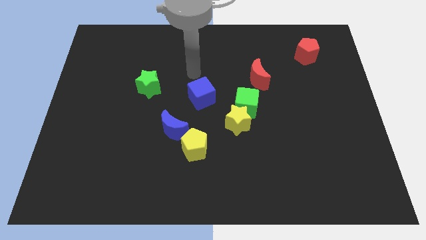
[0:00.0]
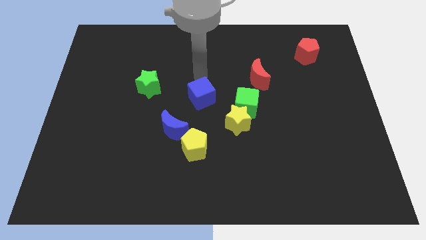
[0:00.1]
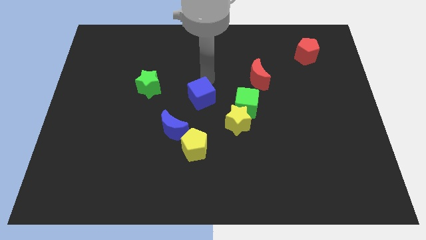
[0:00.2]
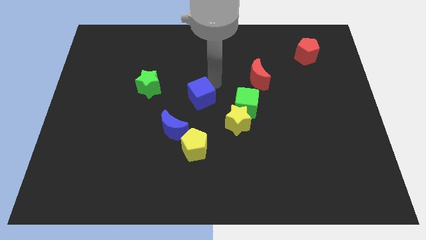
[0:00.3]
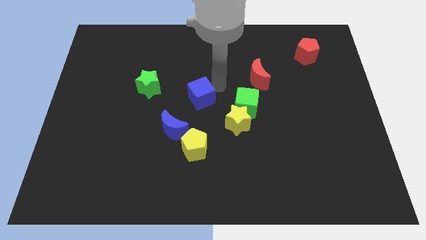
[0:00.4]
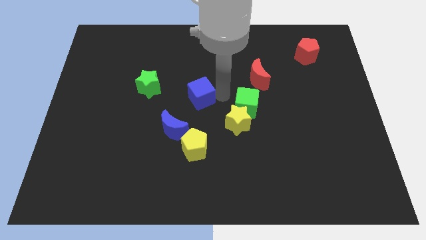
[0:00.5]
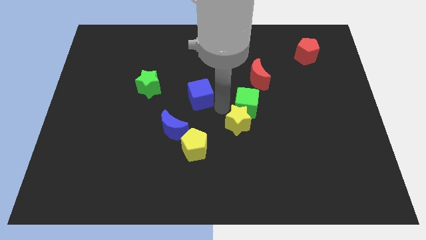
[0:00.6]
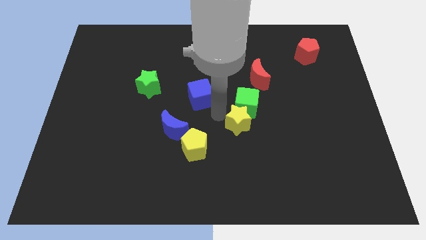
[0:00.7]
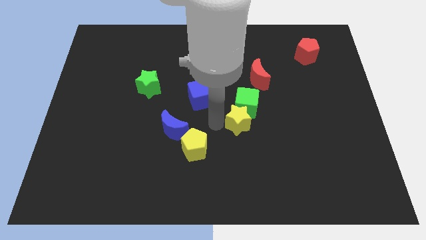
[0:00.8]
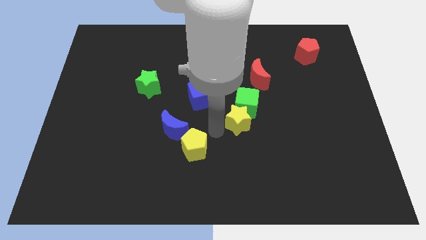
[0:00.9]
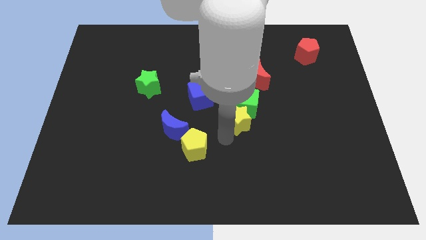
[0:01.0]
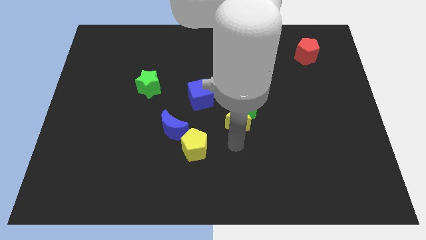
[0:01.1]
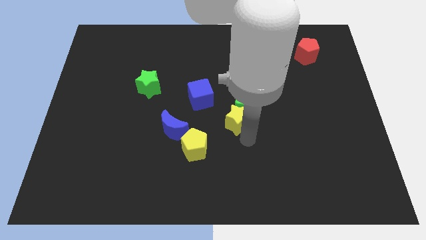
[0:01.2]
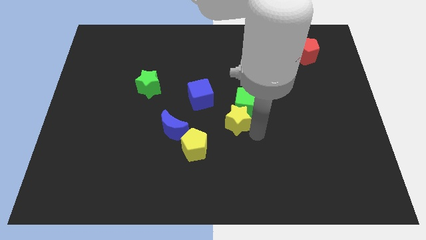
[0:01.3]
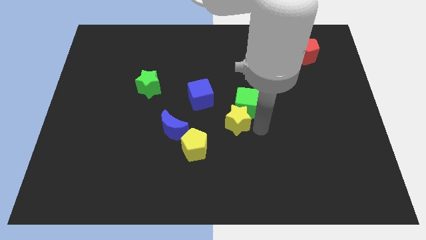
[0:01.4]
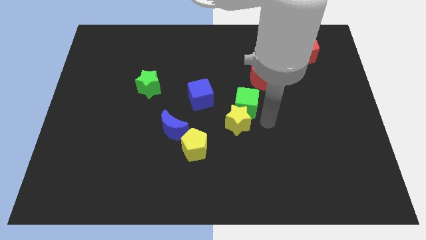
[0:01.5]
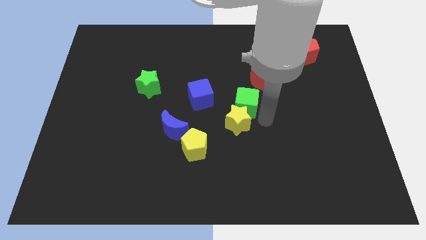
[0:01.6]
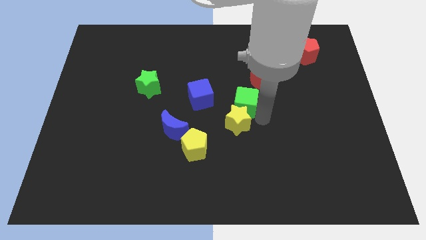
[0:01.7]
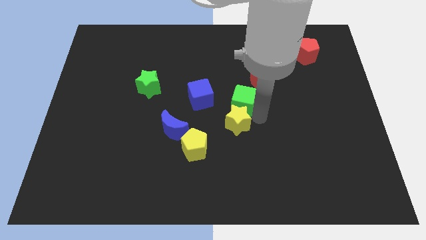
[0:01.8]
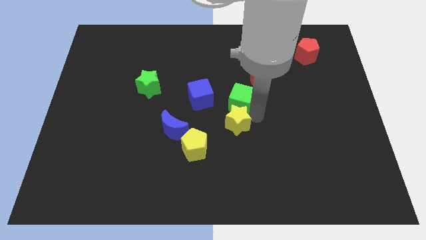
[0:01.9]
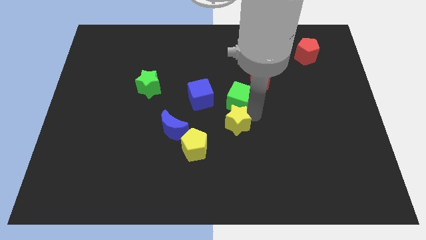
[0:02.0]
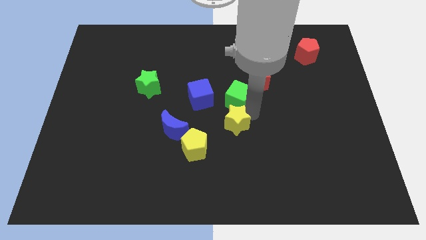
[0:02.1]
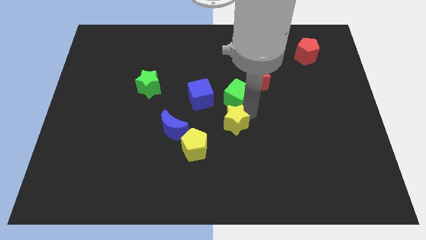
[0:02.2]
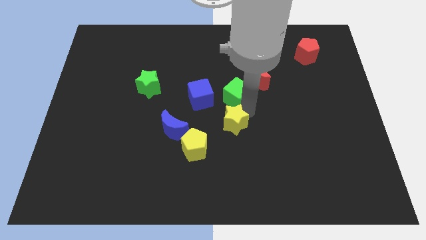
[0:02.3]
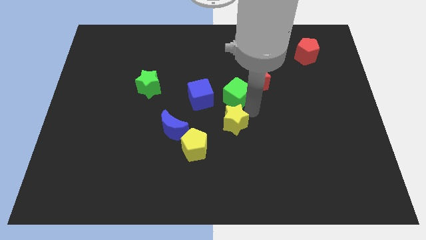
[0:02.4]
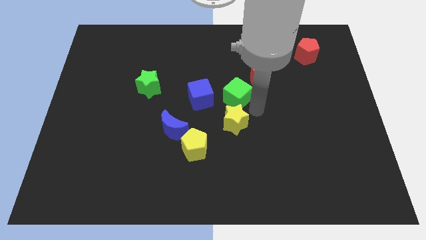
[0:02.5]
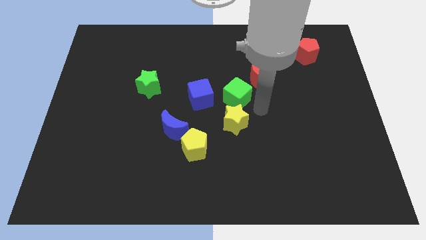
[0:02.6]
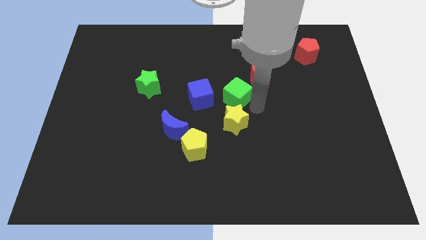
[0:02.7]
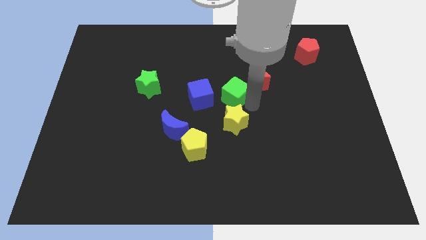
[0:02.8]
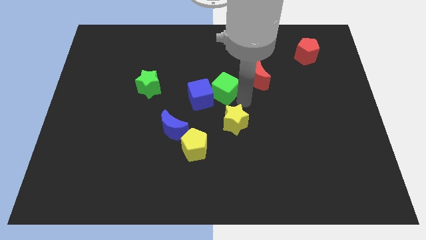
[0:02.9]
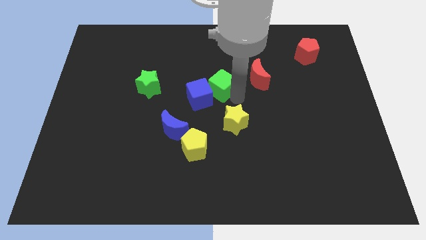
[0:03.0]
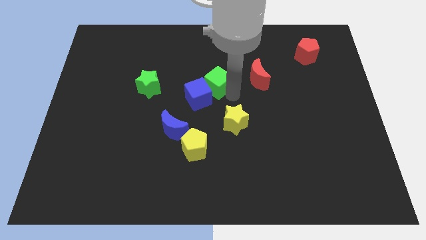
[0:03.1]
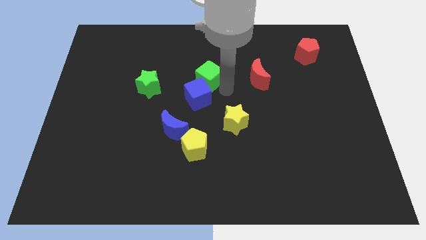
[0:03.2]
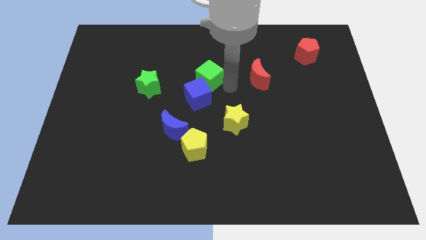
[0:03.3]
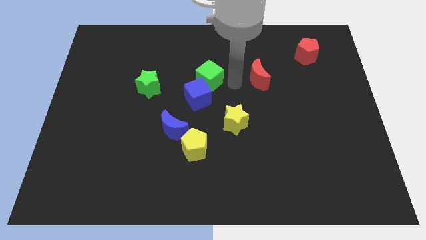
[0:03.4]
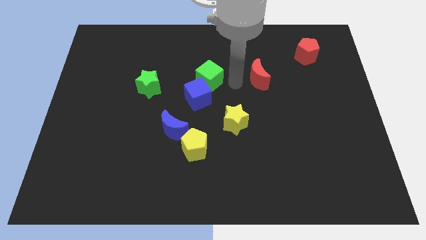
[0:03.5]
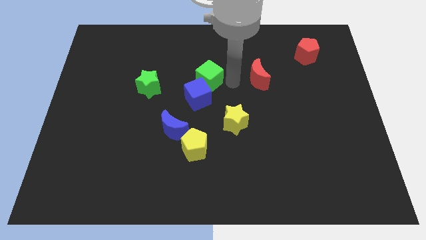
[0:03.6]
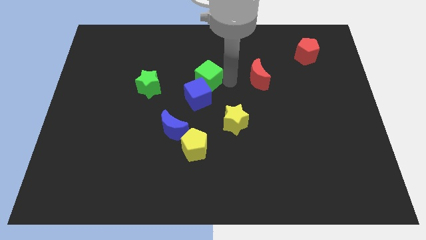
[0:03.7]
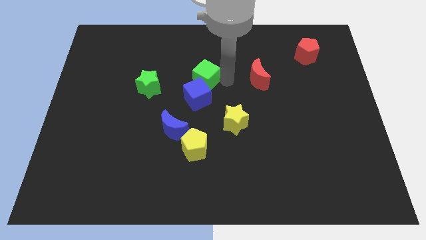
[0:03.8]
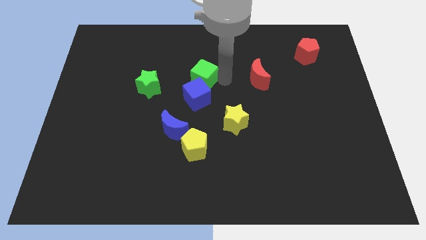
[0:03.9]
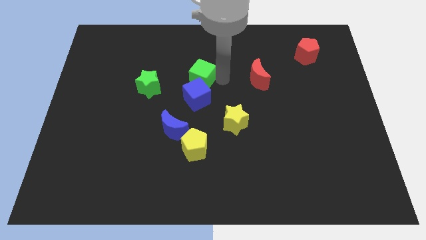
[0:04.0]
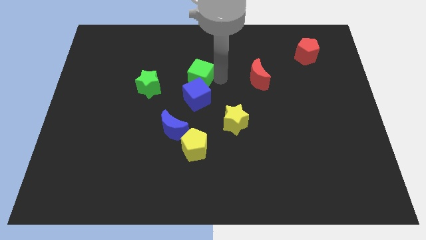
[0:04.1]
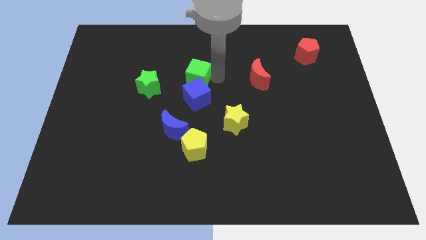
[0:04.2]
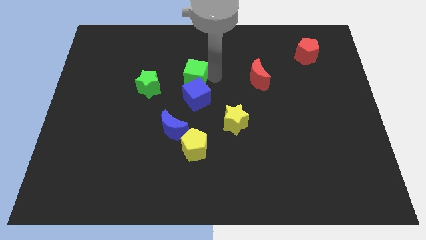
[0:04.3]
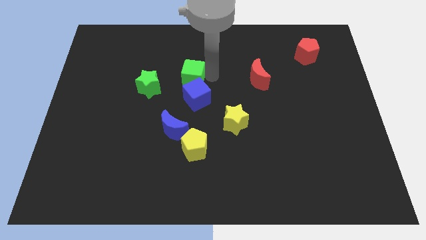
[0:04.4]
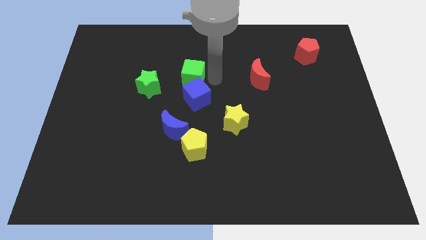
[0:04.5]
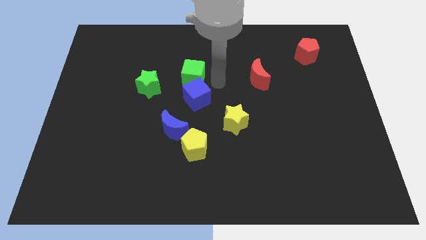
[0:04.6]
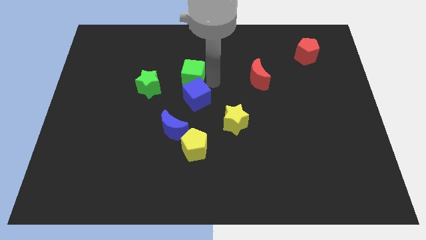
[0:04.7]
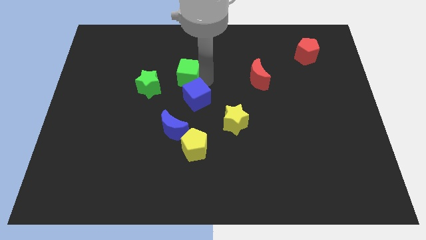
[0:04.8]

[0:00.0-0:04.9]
slide the green cube to the top right side of the green star

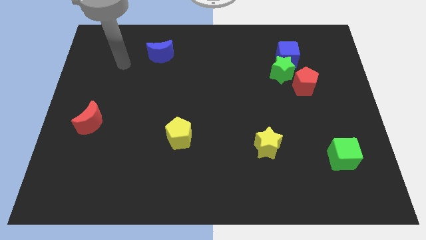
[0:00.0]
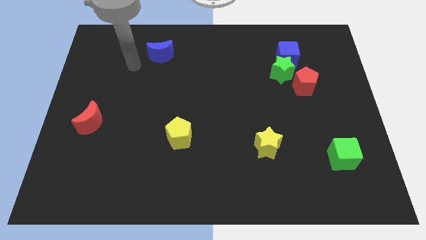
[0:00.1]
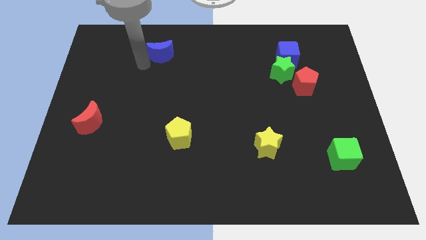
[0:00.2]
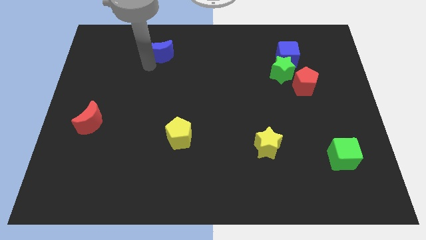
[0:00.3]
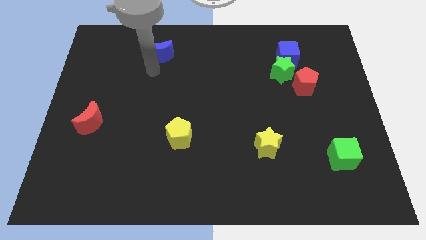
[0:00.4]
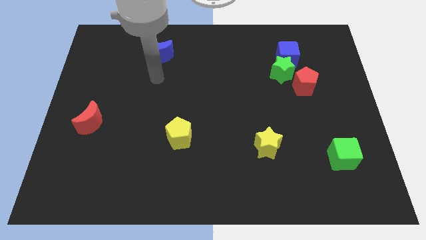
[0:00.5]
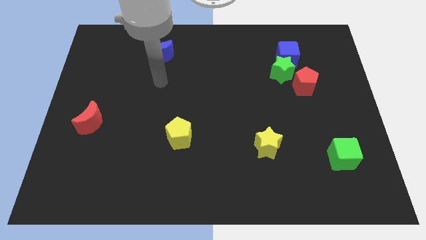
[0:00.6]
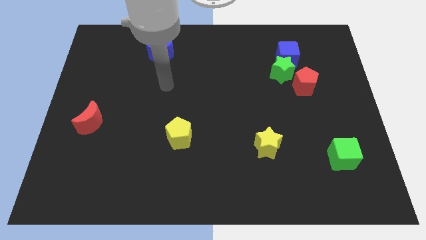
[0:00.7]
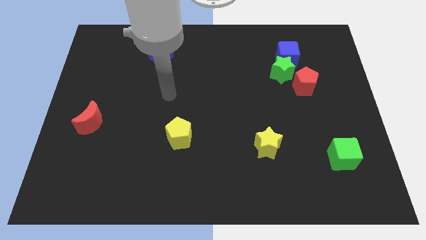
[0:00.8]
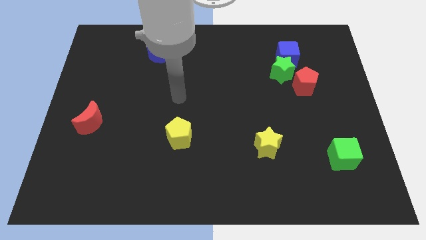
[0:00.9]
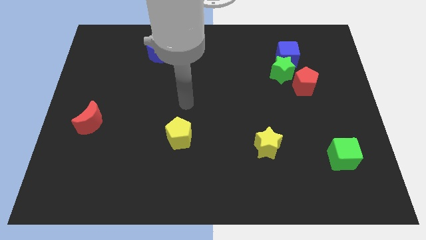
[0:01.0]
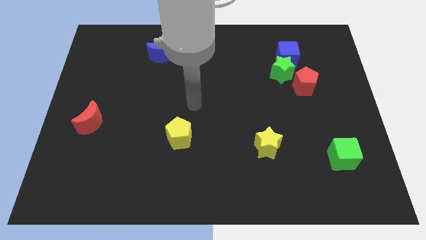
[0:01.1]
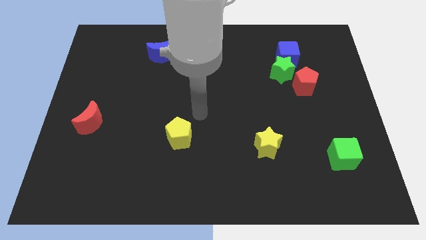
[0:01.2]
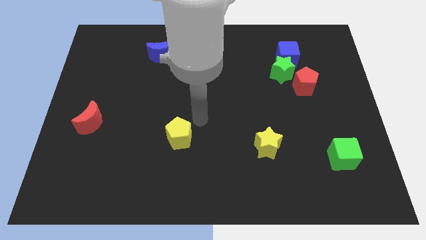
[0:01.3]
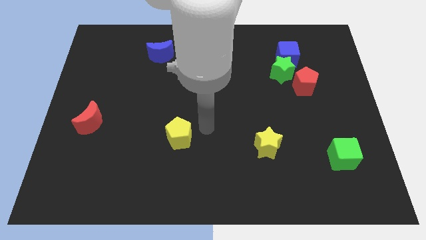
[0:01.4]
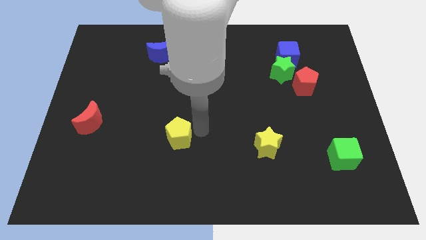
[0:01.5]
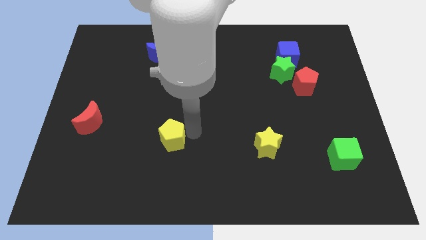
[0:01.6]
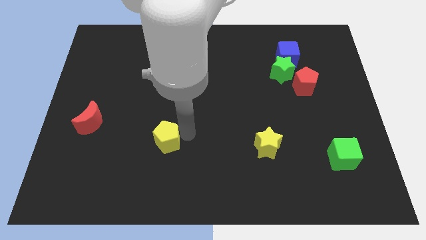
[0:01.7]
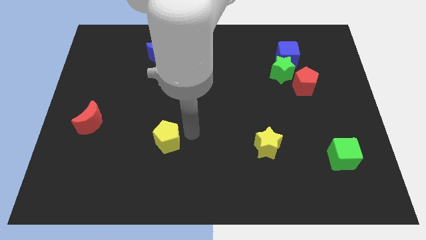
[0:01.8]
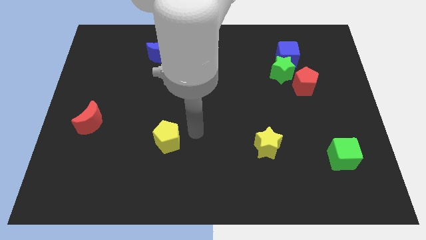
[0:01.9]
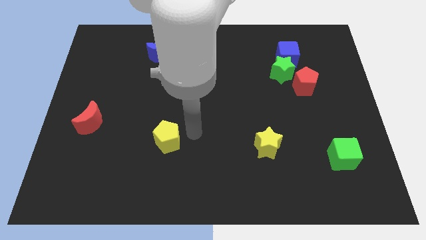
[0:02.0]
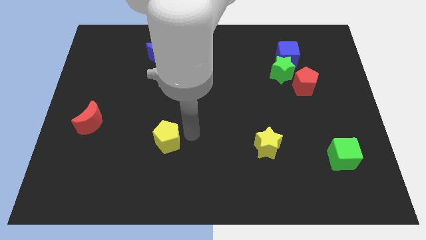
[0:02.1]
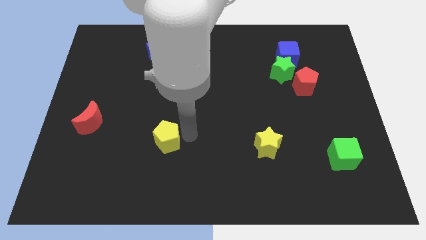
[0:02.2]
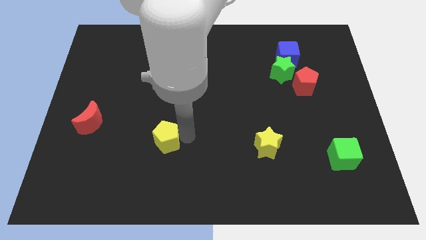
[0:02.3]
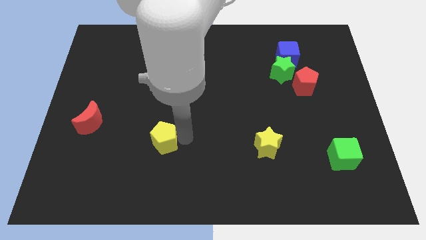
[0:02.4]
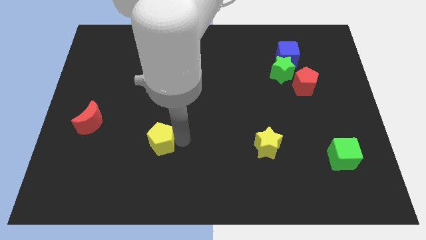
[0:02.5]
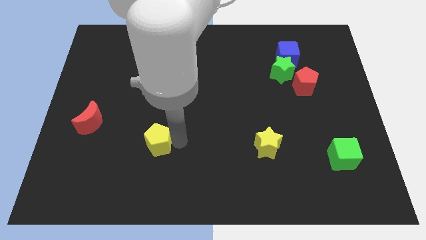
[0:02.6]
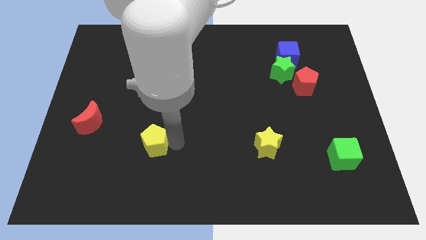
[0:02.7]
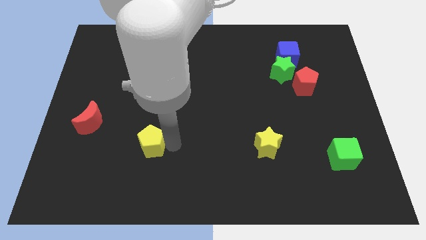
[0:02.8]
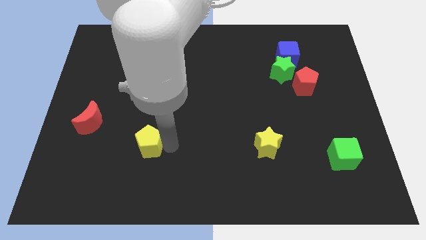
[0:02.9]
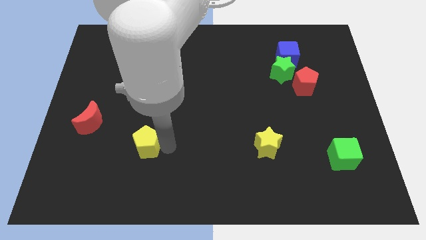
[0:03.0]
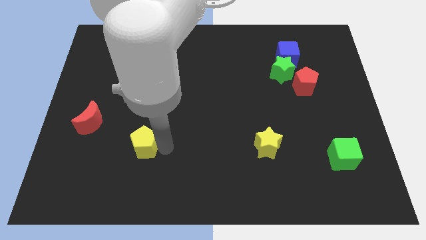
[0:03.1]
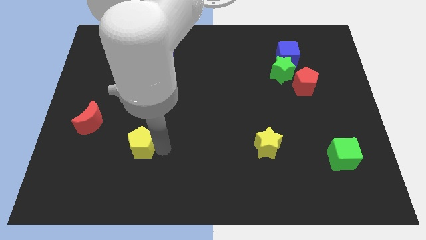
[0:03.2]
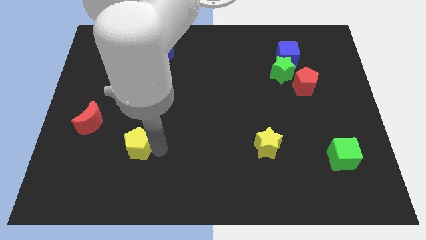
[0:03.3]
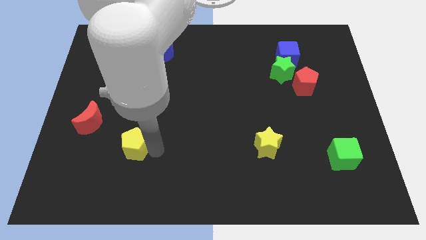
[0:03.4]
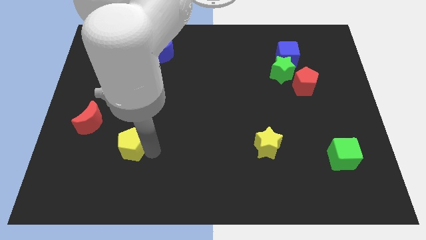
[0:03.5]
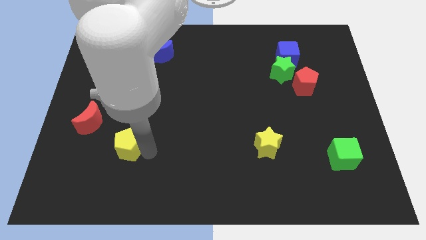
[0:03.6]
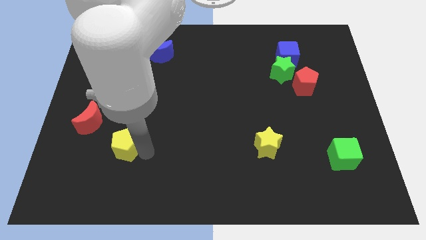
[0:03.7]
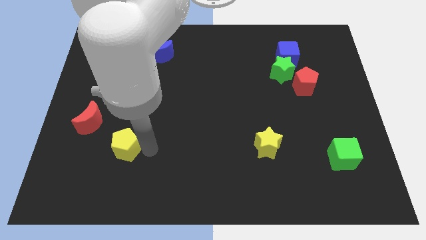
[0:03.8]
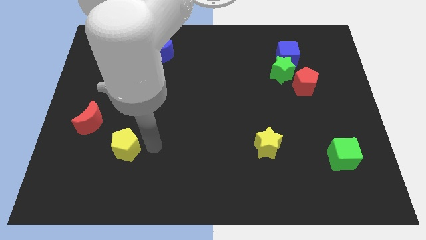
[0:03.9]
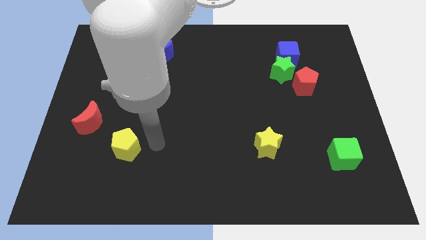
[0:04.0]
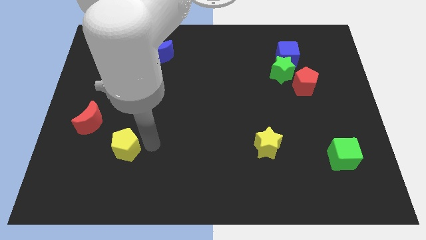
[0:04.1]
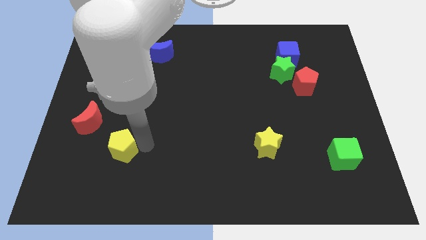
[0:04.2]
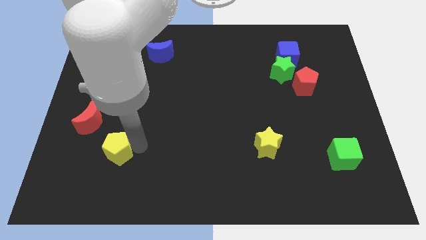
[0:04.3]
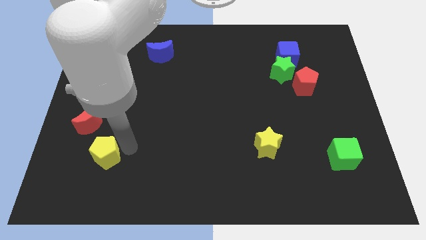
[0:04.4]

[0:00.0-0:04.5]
push the yellow pentagon to the bottom of the red moon
